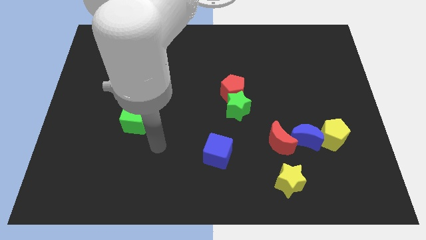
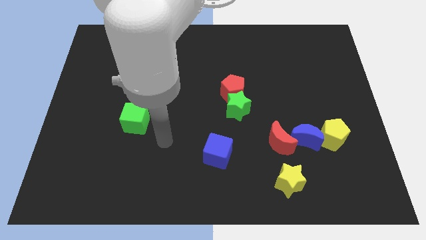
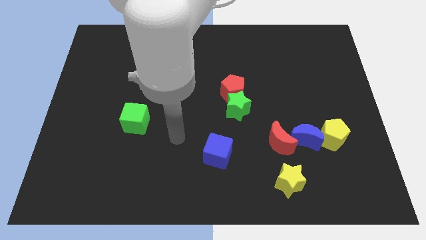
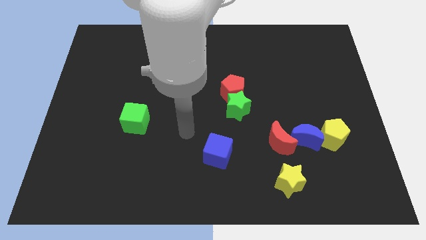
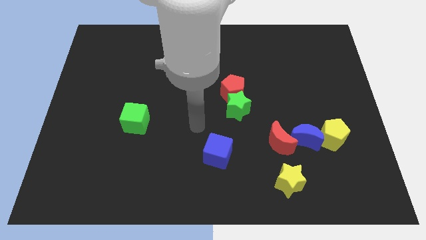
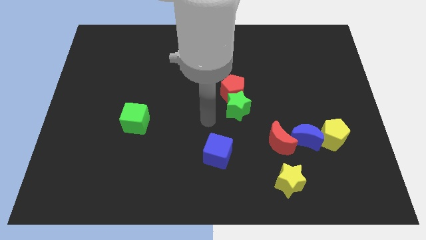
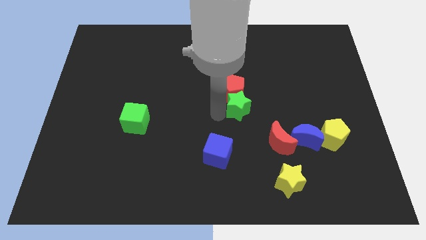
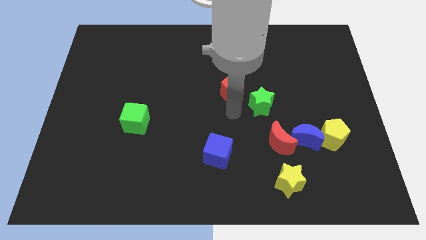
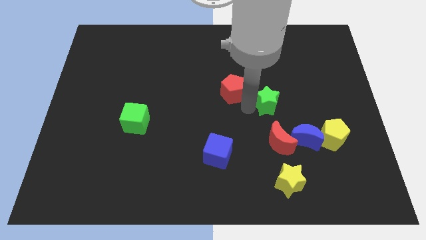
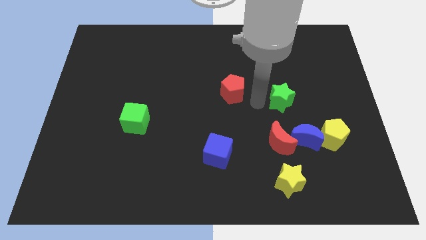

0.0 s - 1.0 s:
separate the red pentagon from the green star

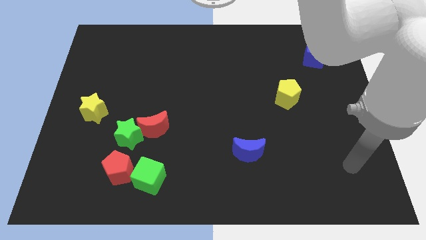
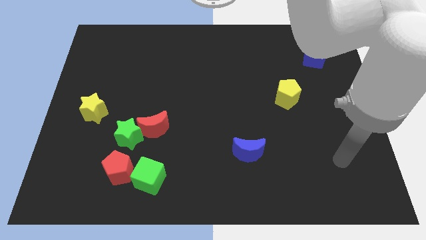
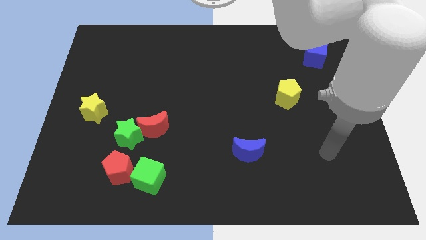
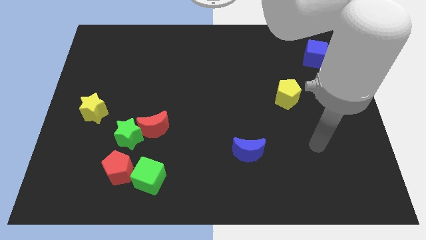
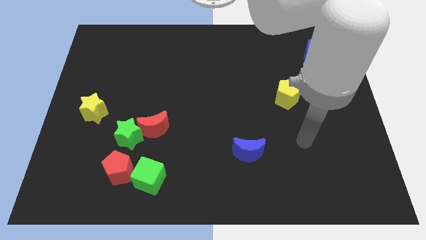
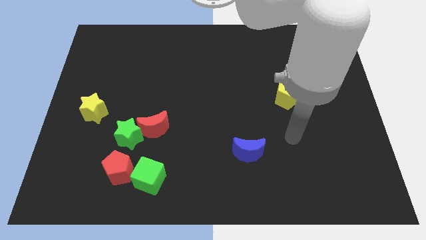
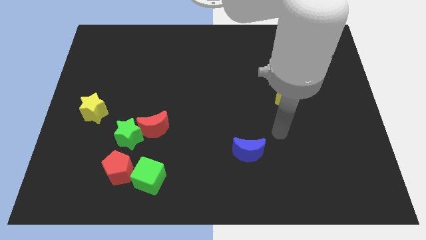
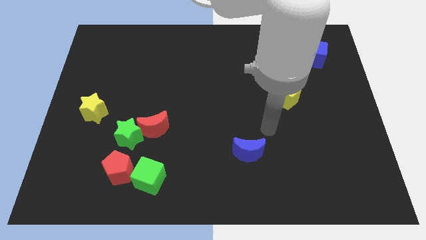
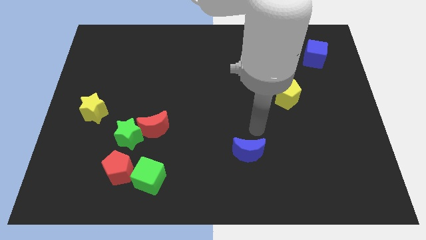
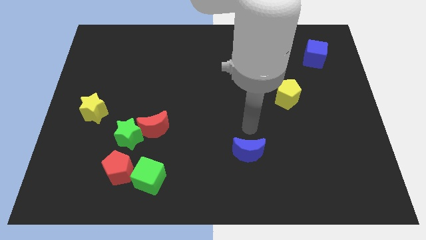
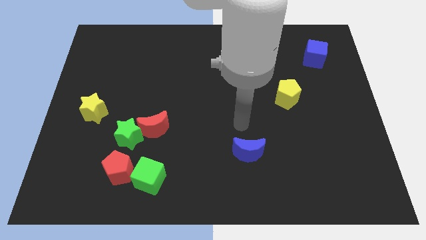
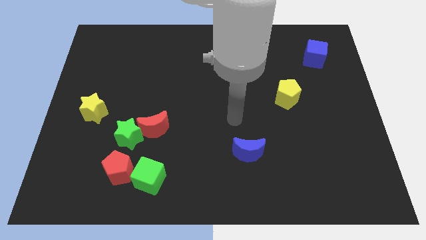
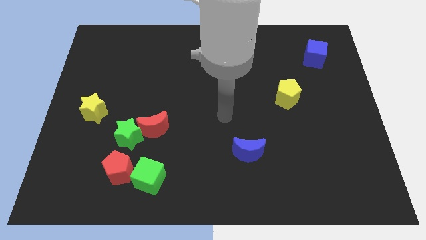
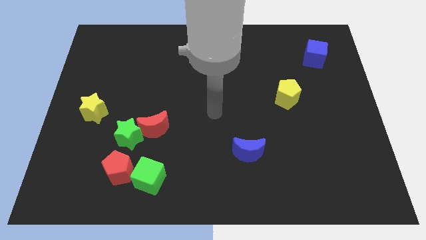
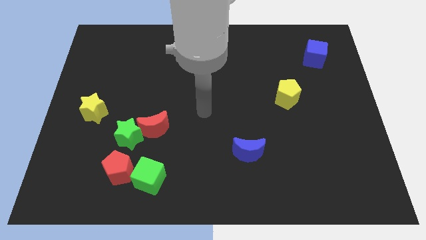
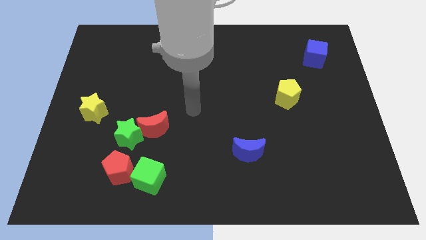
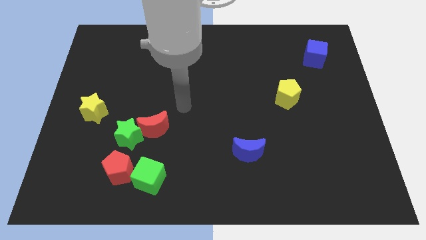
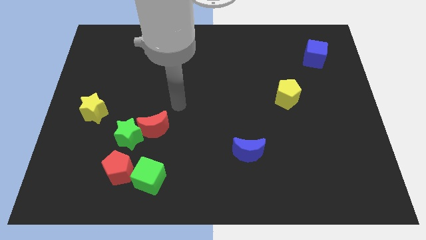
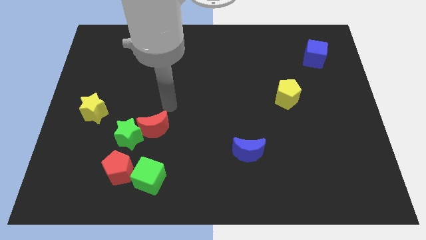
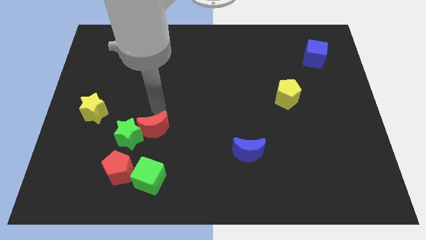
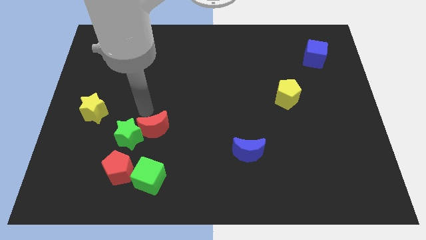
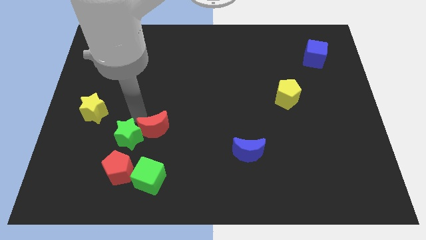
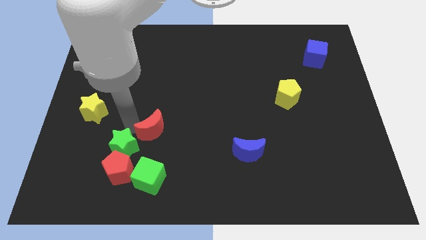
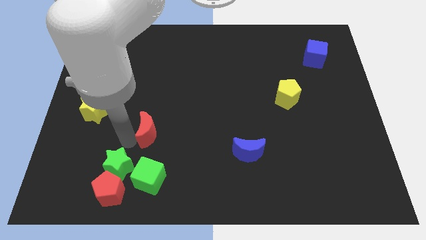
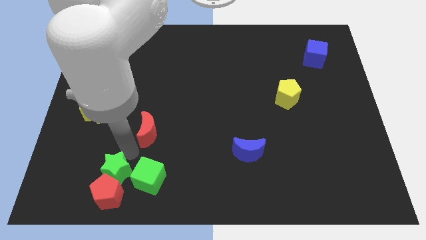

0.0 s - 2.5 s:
separate the red moon from the green star

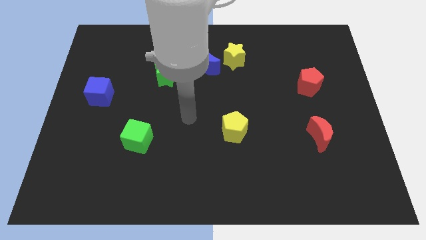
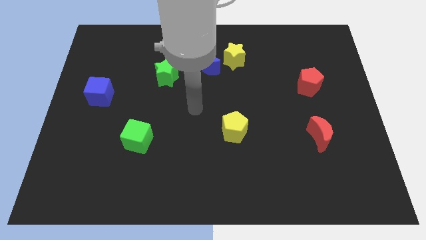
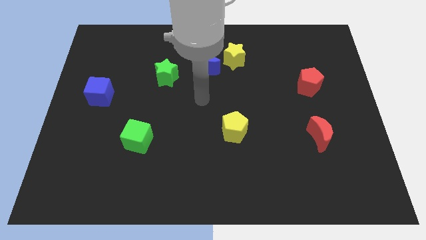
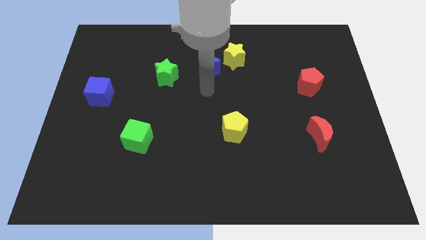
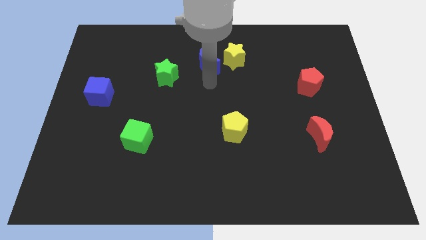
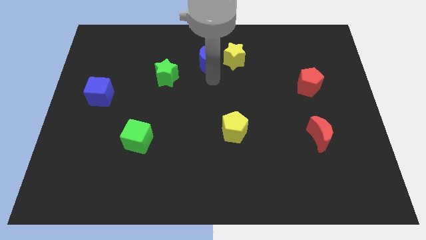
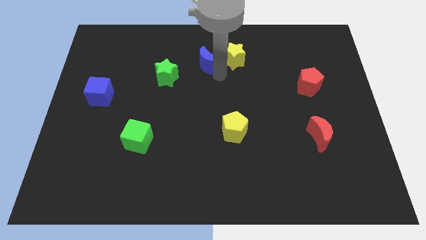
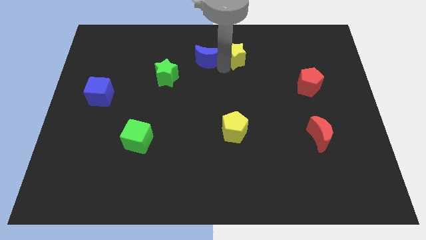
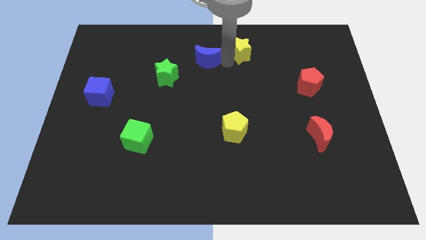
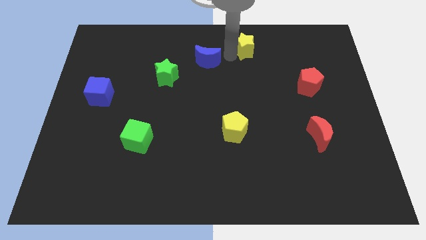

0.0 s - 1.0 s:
separate the blue moon from the yellow star

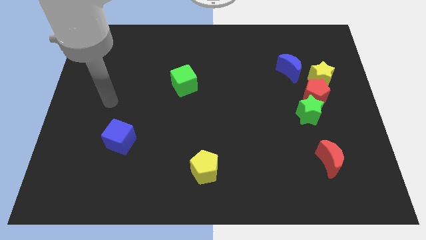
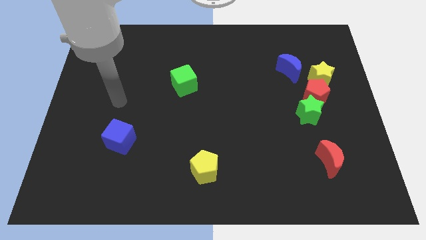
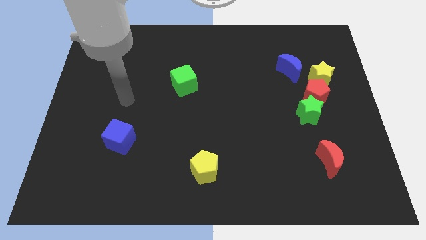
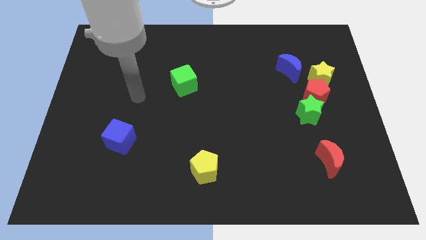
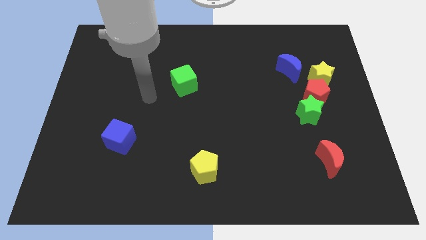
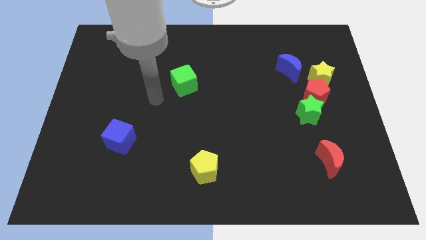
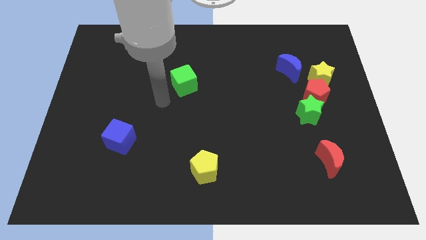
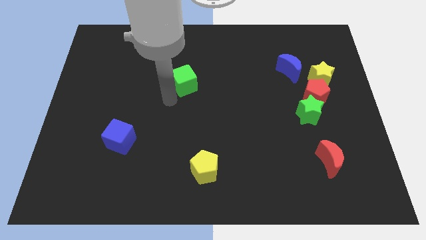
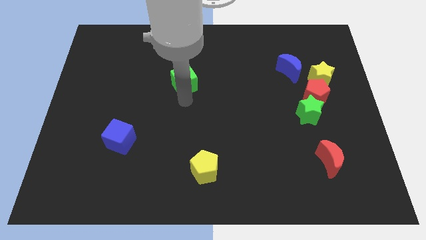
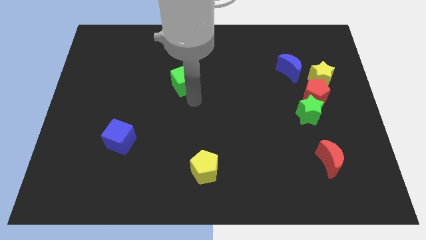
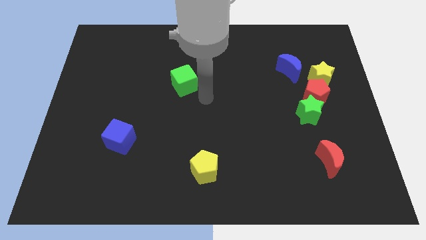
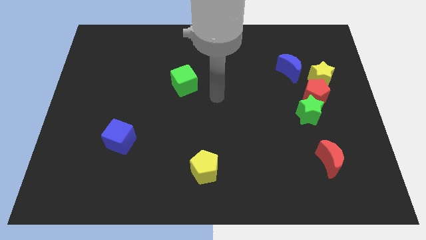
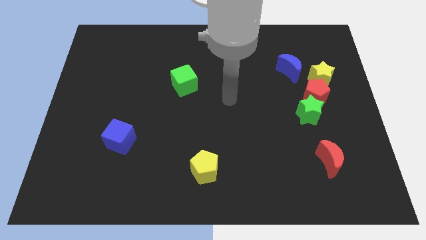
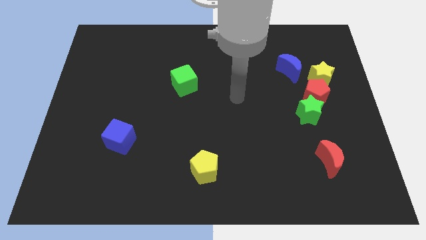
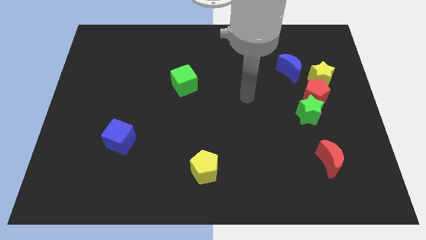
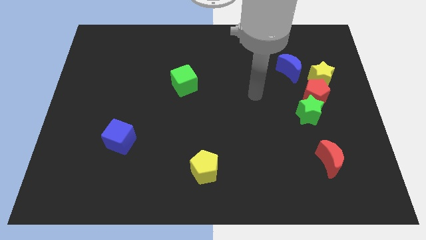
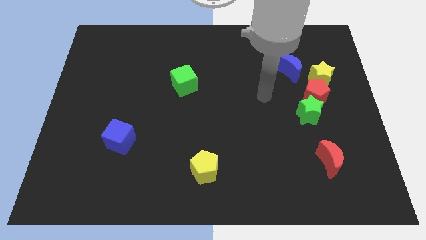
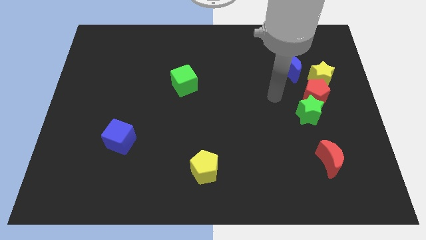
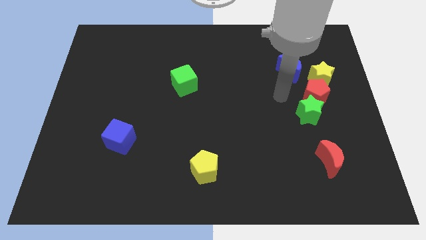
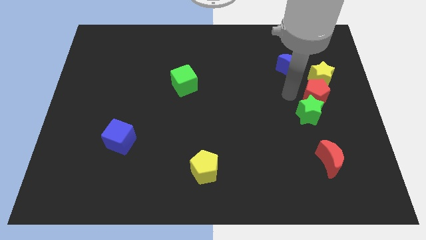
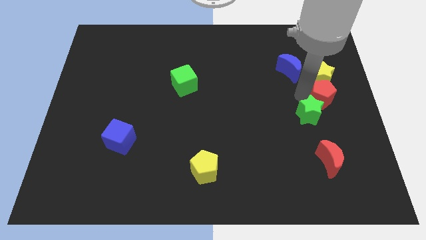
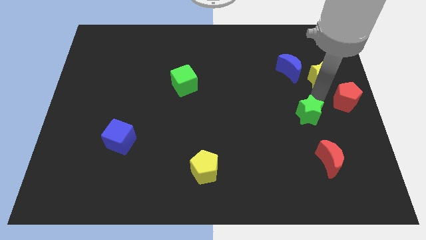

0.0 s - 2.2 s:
separate the green star from the red pentagon

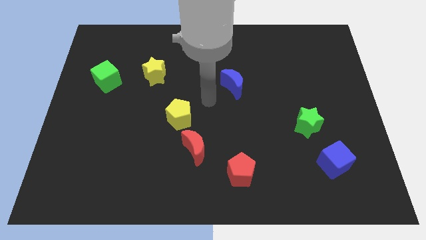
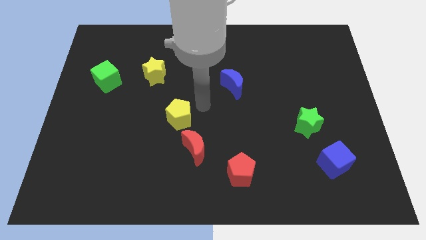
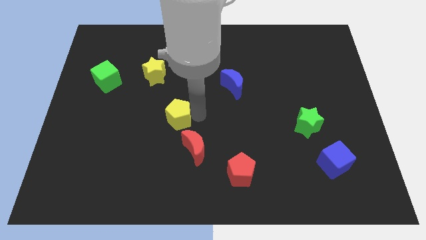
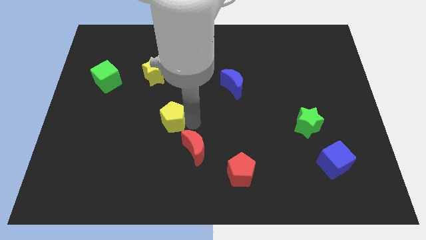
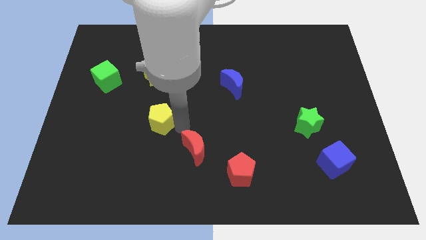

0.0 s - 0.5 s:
pull the red moon apart from the yellow pentagon

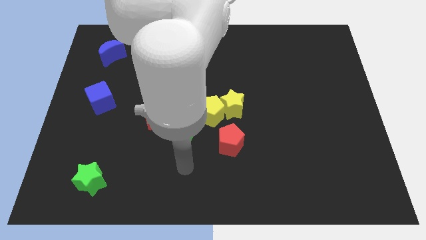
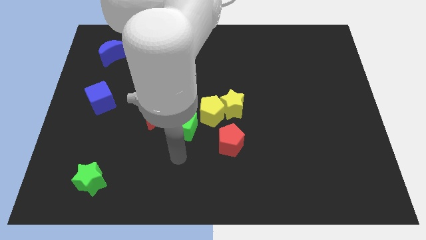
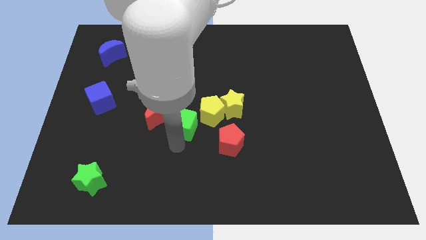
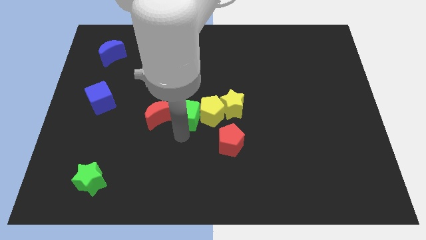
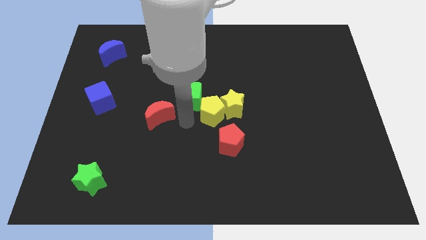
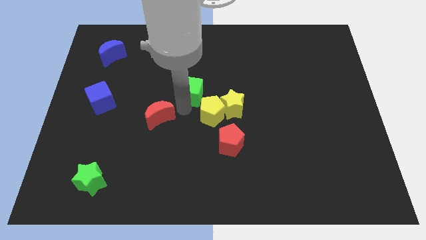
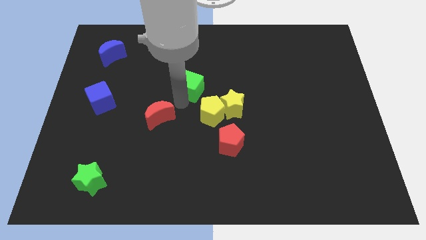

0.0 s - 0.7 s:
move the red moon away from the green cube

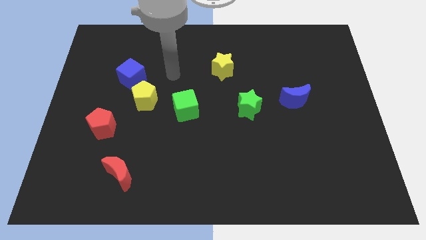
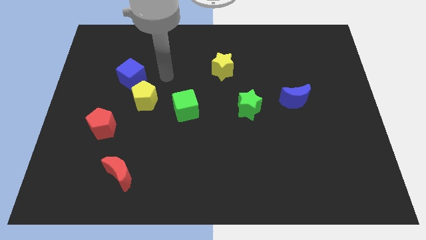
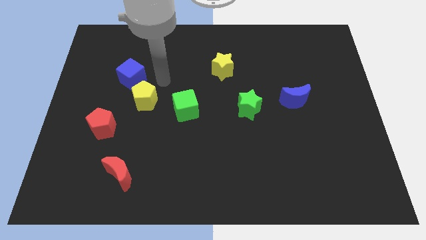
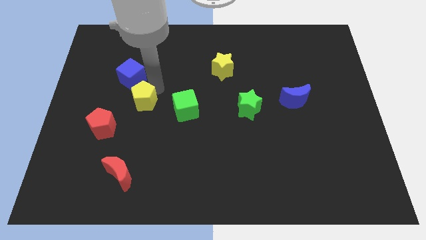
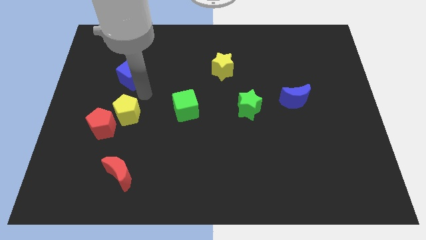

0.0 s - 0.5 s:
move the blue cube away from the yellow pentagon

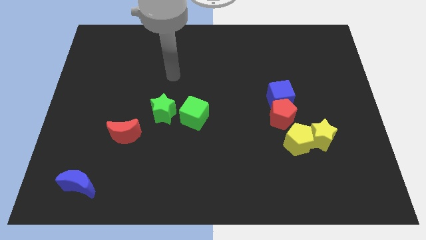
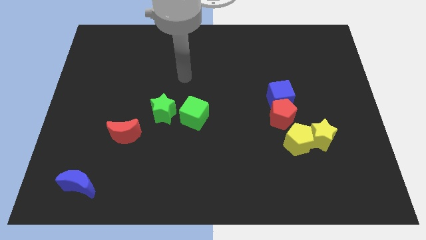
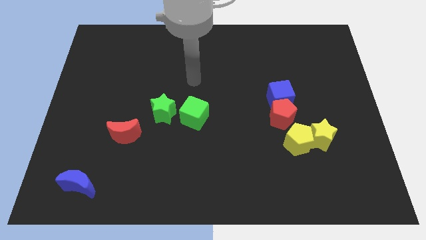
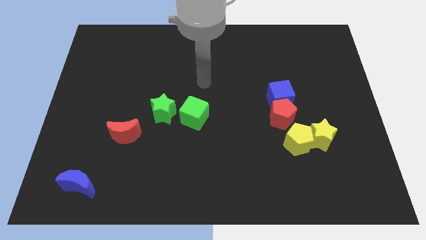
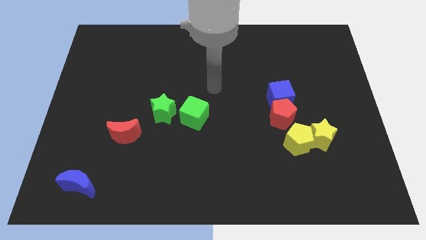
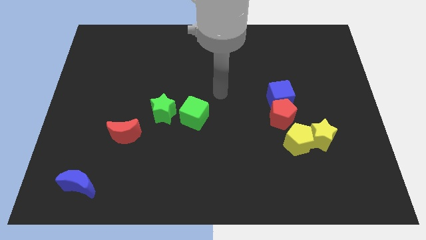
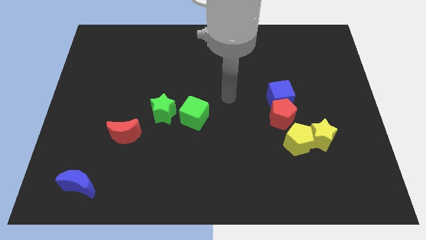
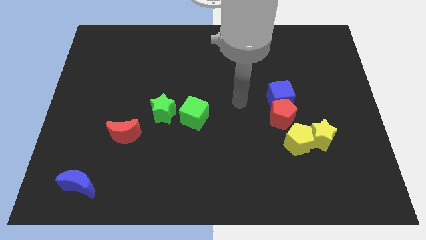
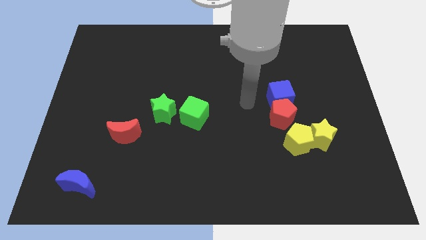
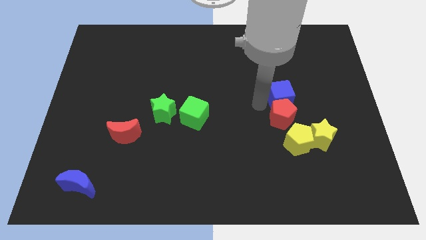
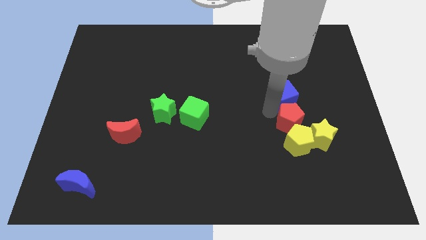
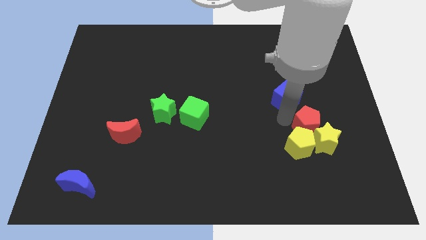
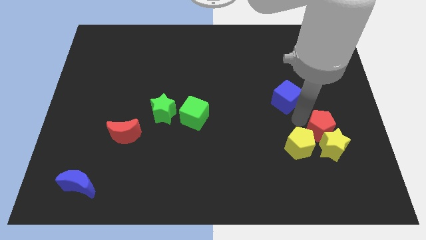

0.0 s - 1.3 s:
pull the blue cube apart from the red pentagon
